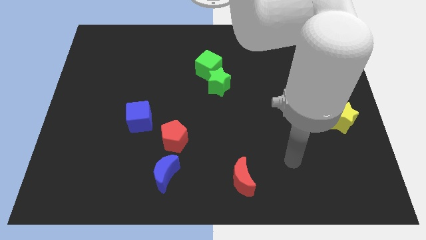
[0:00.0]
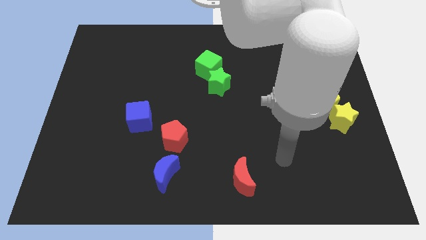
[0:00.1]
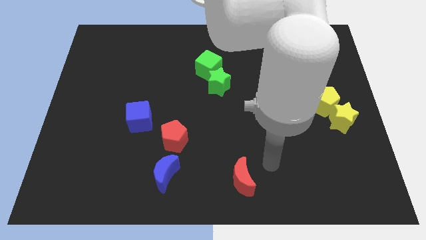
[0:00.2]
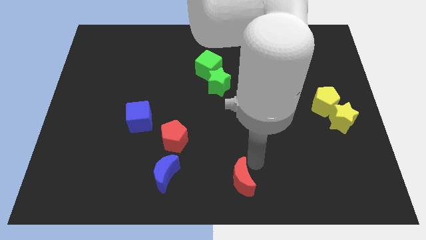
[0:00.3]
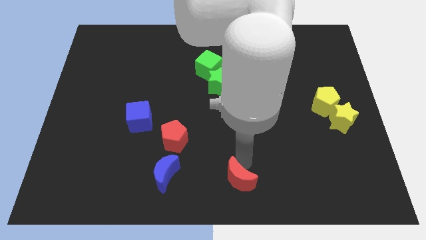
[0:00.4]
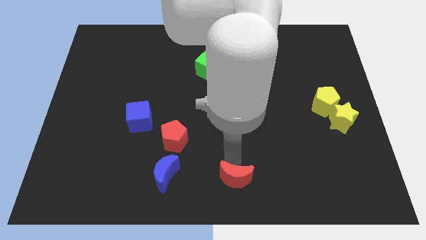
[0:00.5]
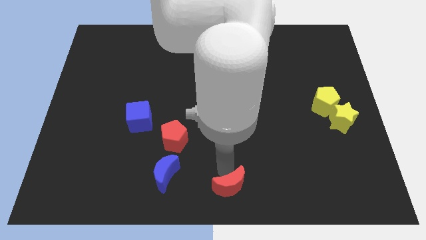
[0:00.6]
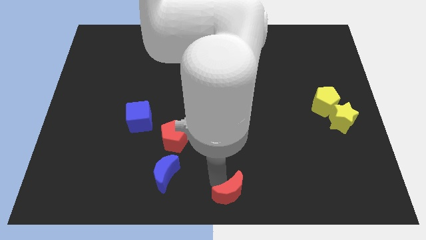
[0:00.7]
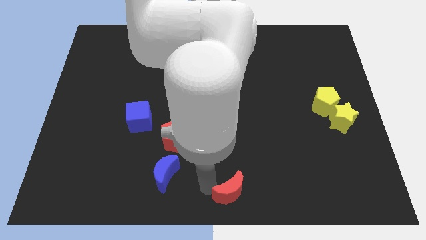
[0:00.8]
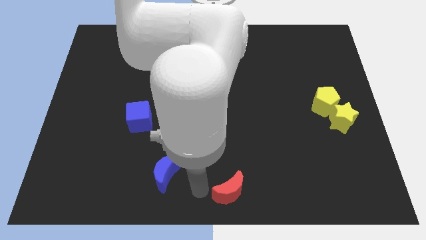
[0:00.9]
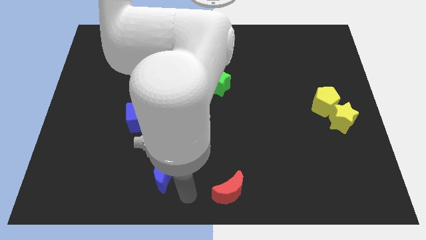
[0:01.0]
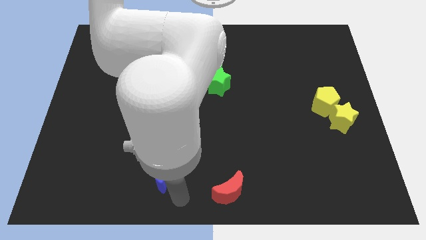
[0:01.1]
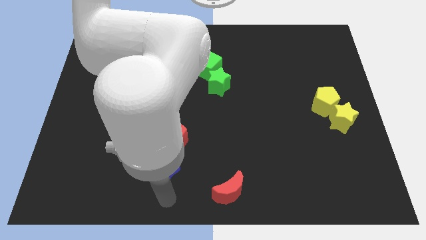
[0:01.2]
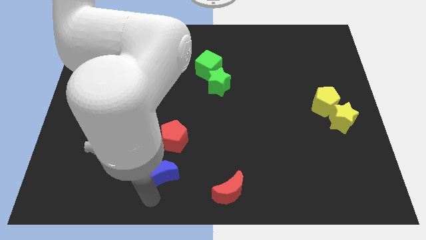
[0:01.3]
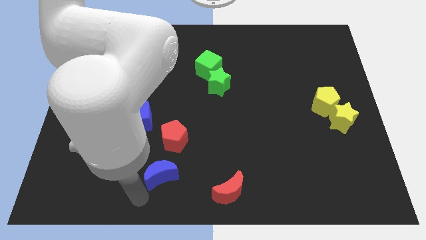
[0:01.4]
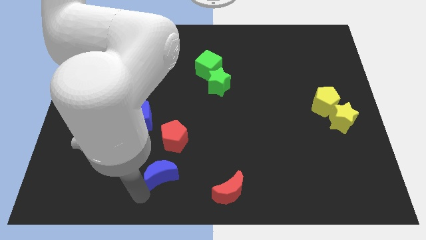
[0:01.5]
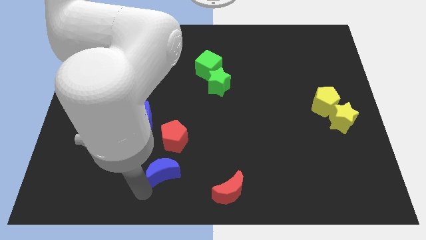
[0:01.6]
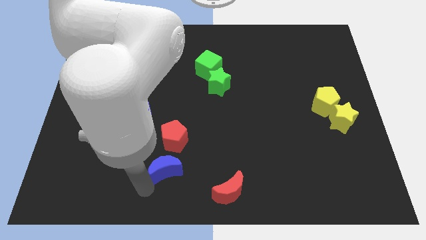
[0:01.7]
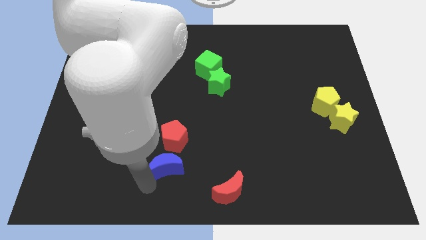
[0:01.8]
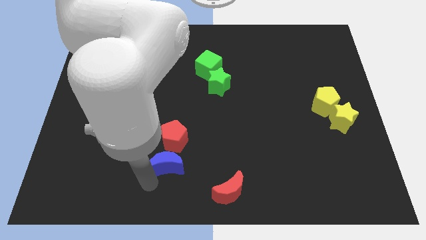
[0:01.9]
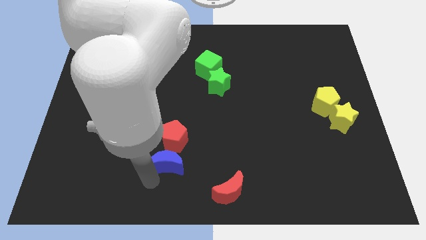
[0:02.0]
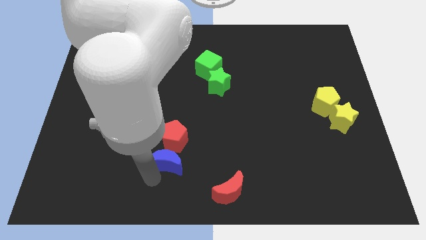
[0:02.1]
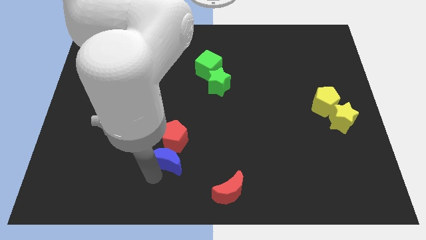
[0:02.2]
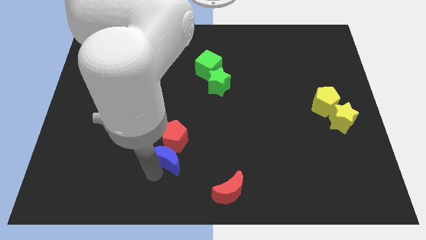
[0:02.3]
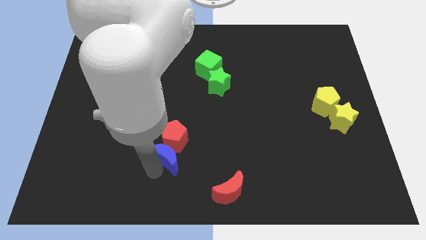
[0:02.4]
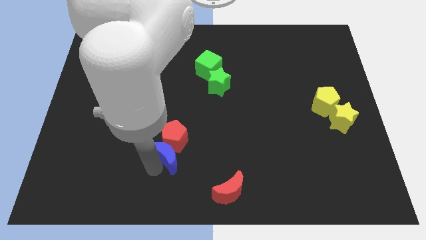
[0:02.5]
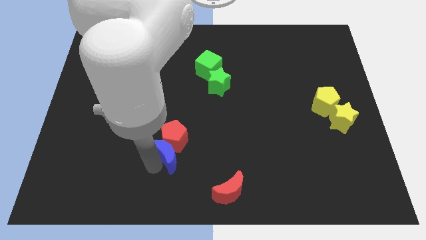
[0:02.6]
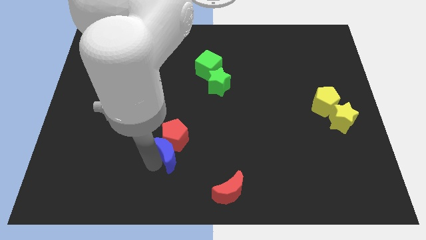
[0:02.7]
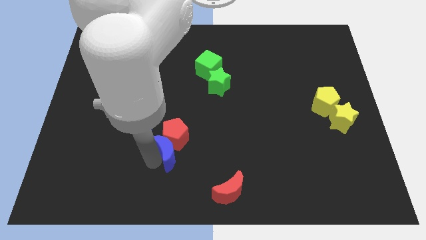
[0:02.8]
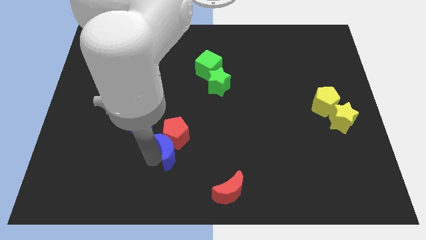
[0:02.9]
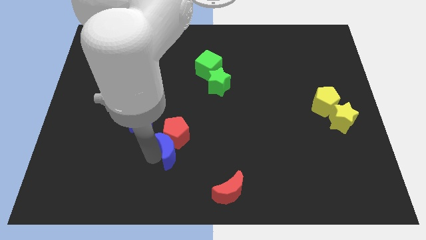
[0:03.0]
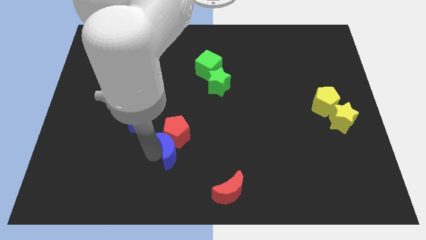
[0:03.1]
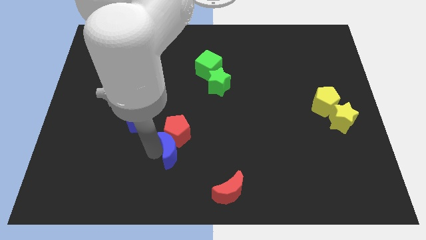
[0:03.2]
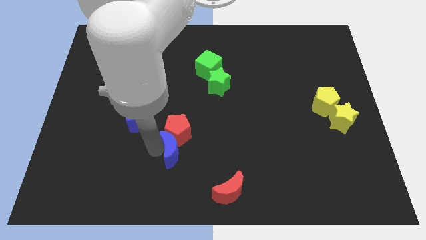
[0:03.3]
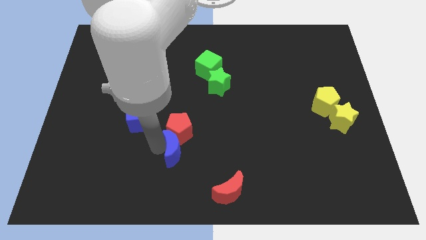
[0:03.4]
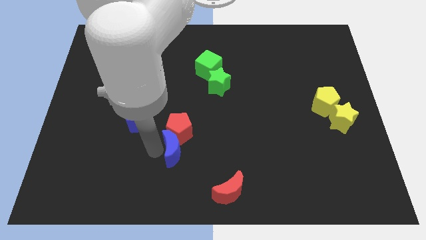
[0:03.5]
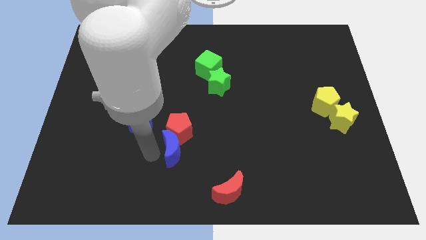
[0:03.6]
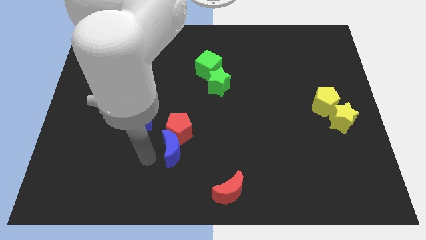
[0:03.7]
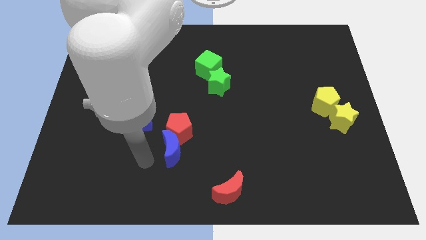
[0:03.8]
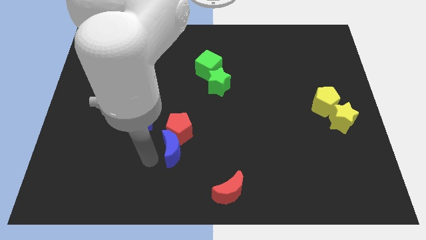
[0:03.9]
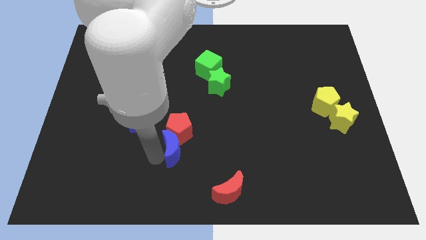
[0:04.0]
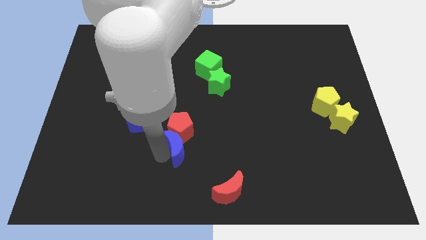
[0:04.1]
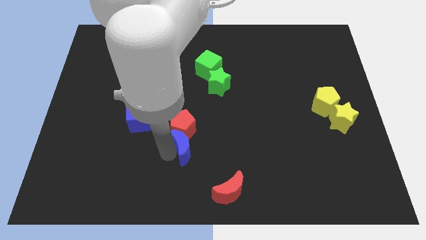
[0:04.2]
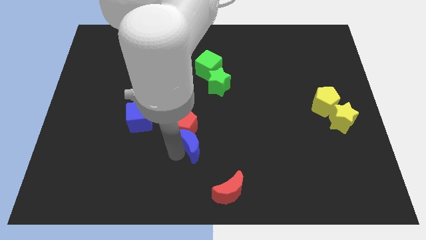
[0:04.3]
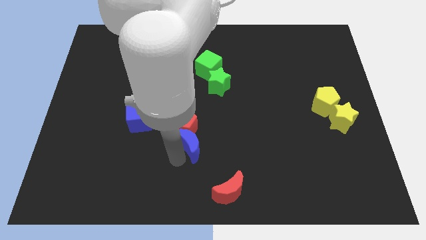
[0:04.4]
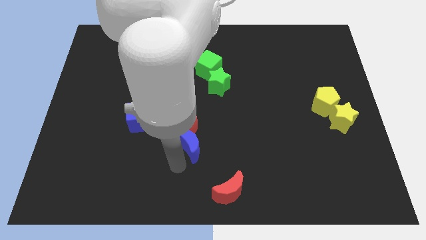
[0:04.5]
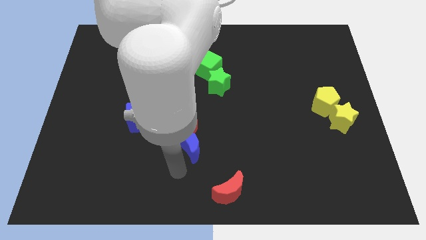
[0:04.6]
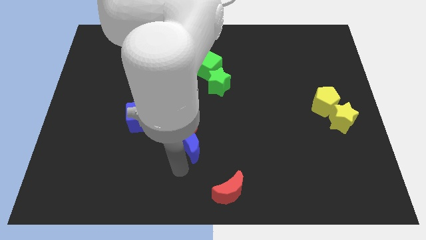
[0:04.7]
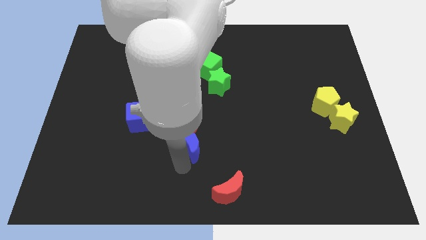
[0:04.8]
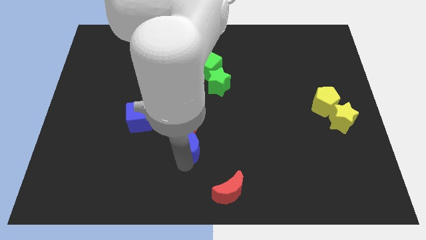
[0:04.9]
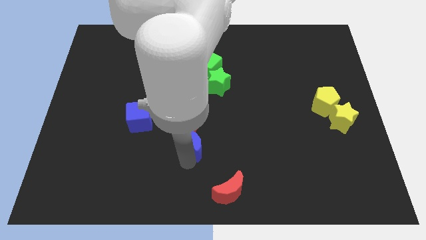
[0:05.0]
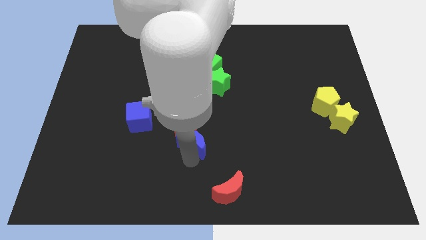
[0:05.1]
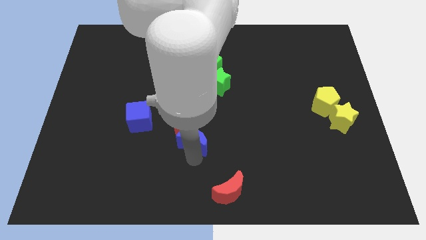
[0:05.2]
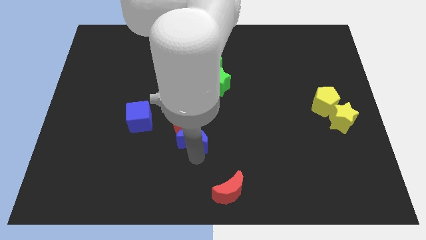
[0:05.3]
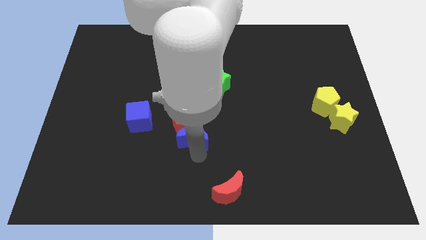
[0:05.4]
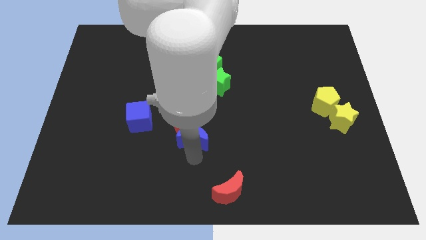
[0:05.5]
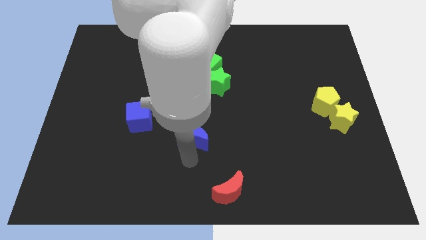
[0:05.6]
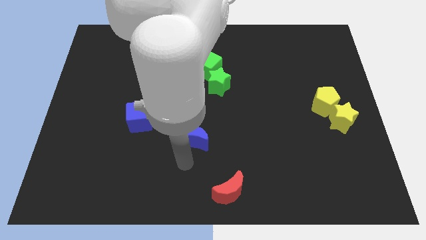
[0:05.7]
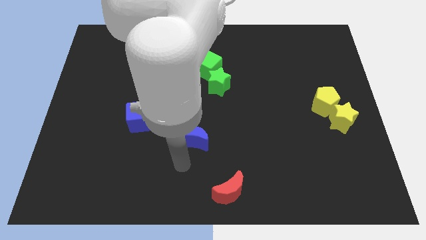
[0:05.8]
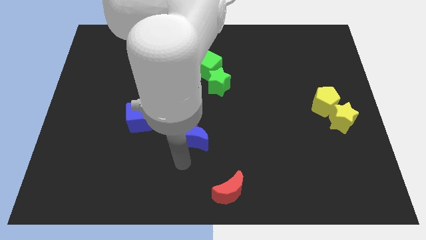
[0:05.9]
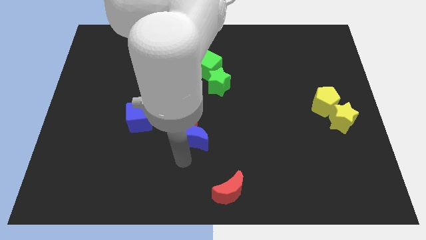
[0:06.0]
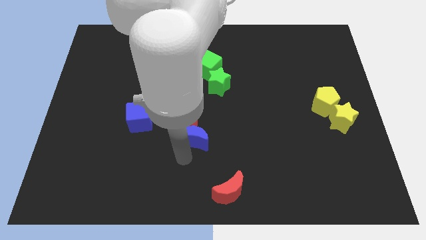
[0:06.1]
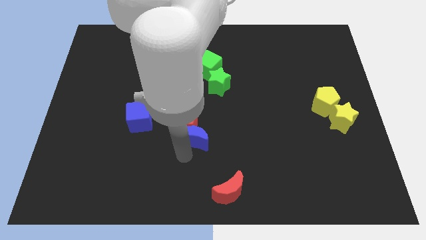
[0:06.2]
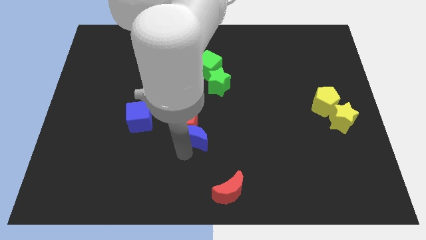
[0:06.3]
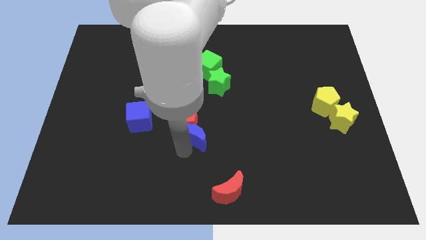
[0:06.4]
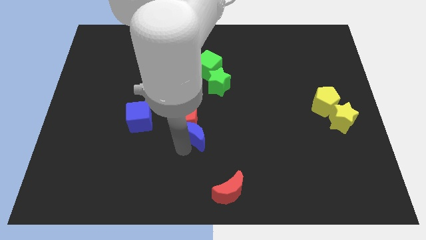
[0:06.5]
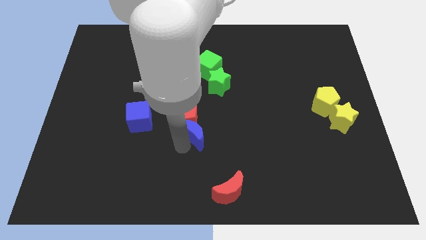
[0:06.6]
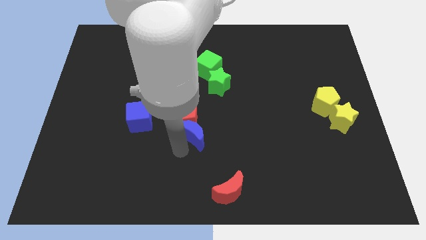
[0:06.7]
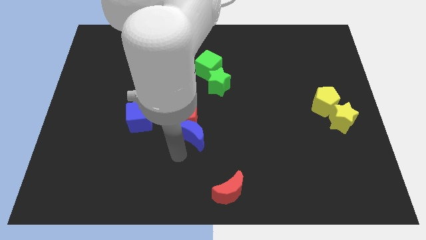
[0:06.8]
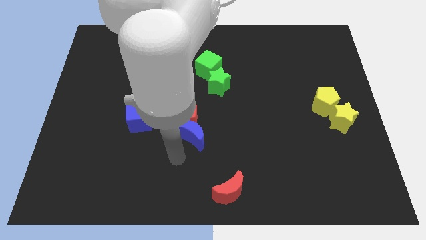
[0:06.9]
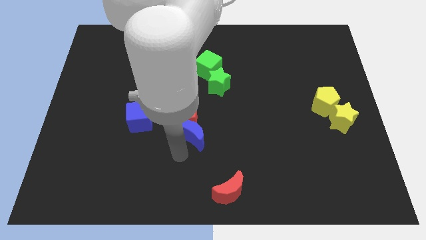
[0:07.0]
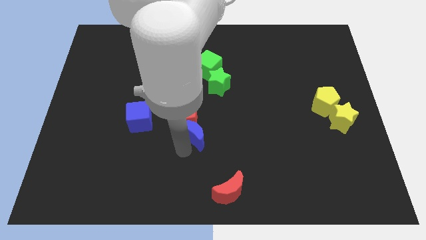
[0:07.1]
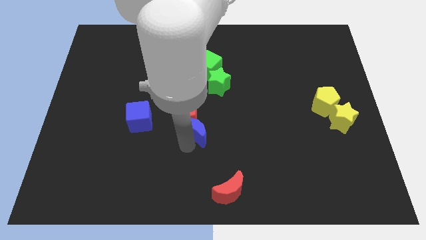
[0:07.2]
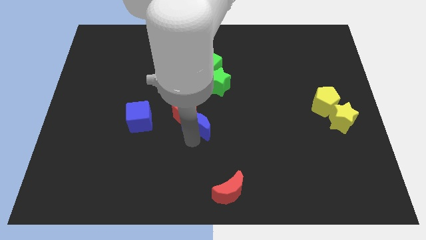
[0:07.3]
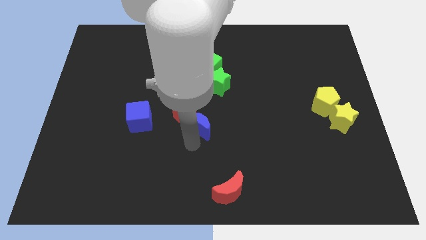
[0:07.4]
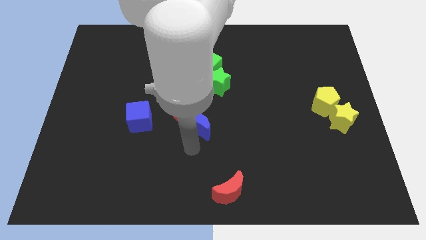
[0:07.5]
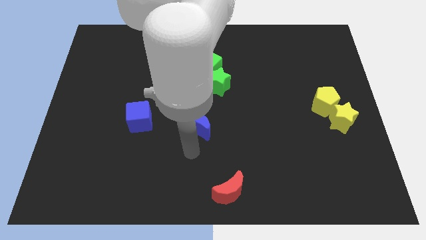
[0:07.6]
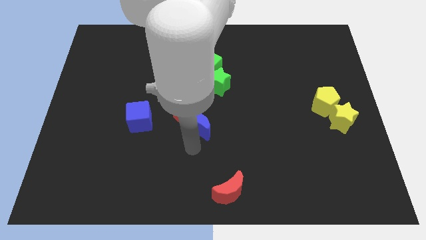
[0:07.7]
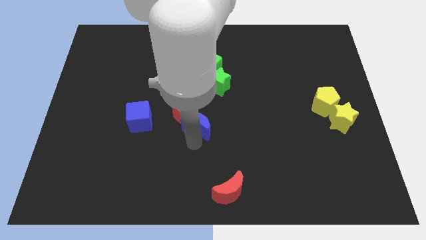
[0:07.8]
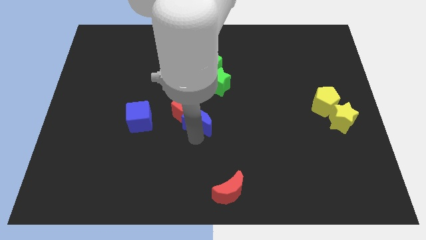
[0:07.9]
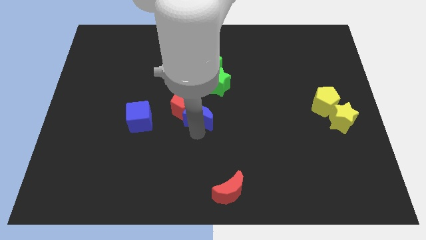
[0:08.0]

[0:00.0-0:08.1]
put the blue moon to the bottom left of the green star
